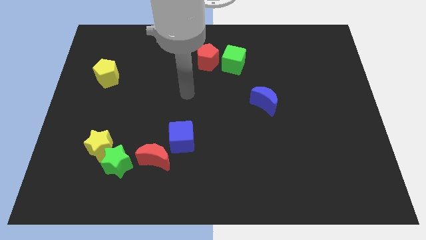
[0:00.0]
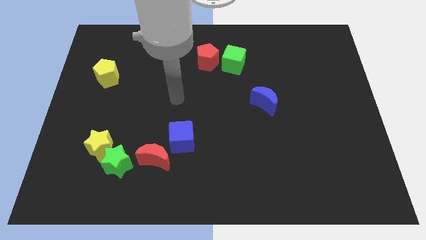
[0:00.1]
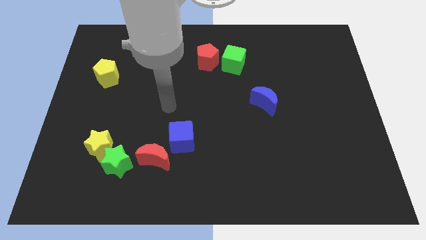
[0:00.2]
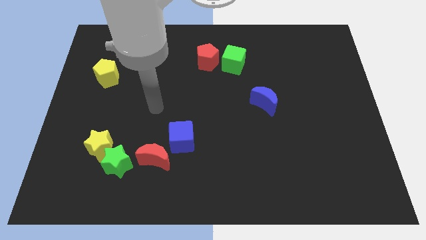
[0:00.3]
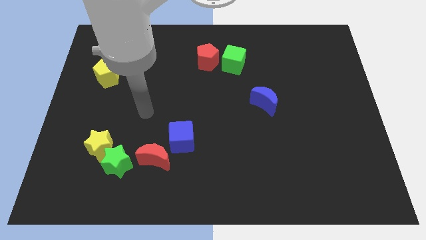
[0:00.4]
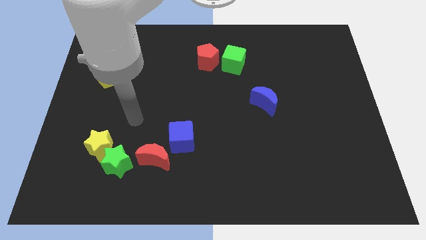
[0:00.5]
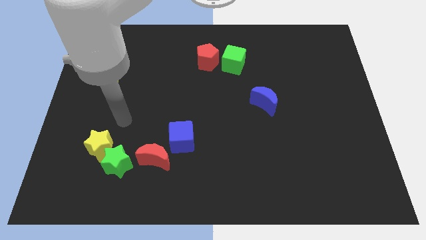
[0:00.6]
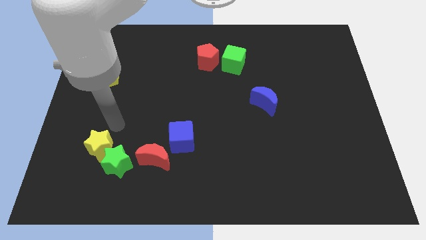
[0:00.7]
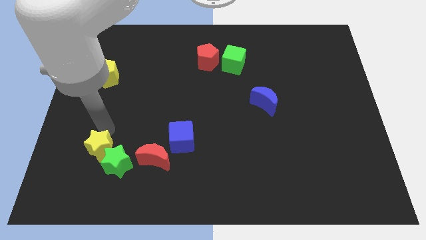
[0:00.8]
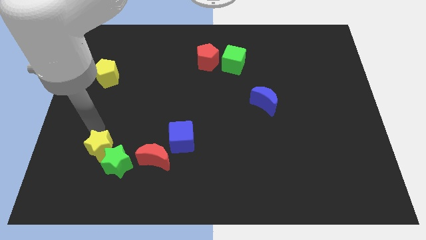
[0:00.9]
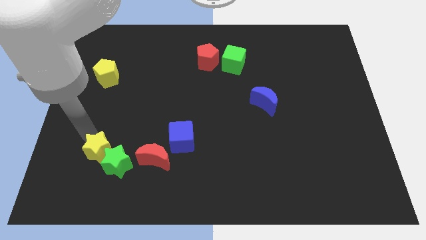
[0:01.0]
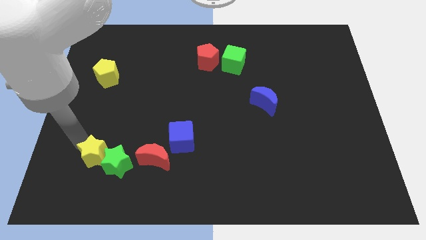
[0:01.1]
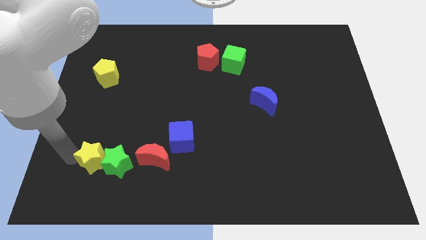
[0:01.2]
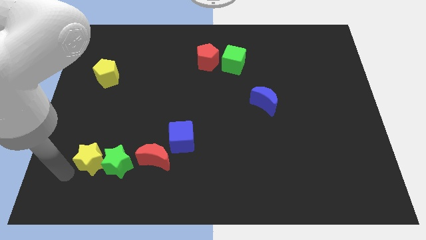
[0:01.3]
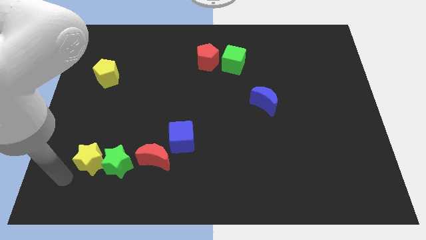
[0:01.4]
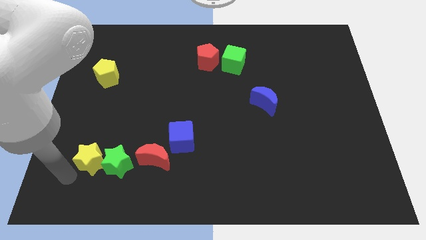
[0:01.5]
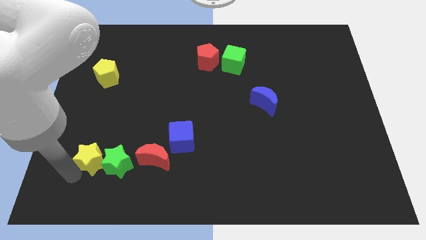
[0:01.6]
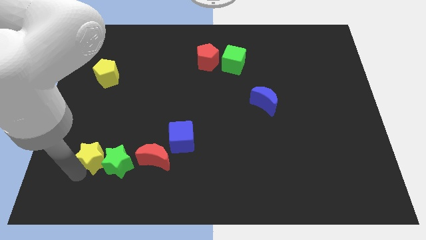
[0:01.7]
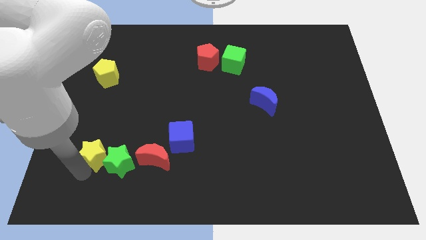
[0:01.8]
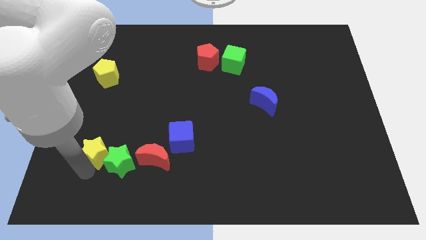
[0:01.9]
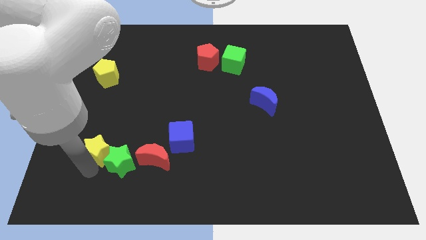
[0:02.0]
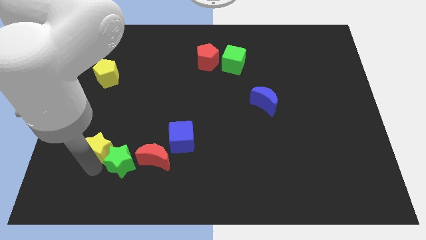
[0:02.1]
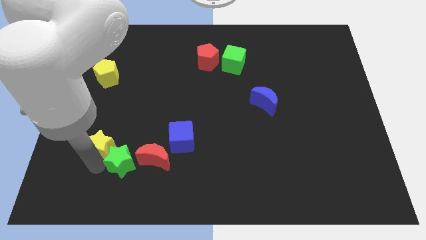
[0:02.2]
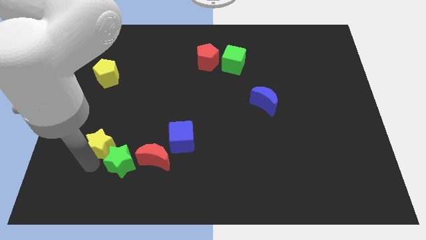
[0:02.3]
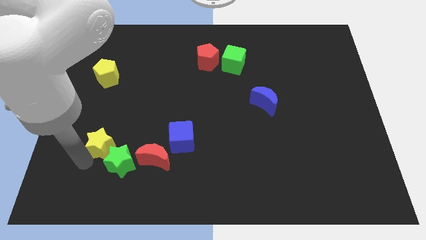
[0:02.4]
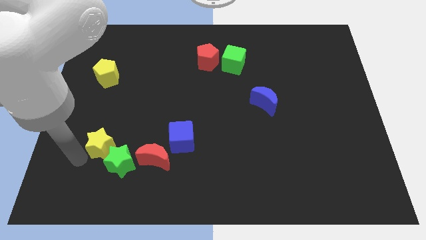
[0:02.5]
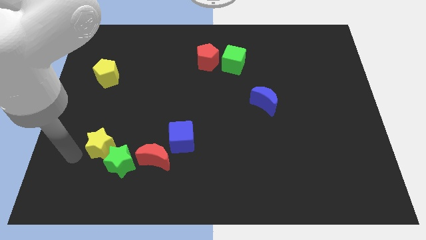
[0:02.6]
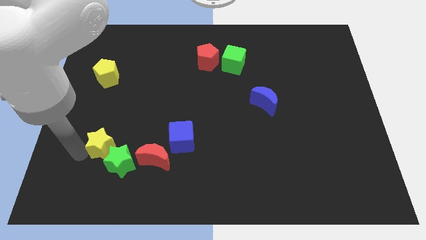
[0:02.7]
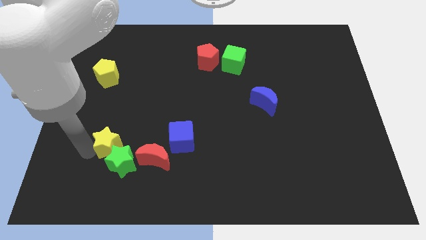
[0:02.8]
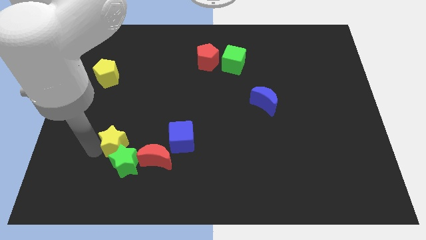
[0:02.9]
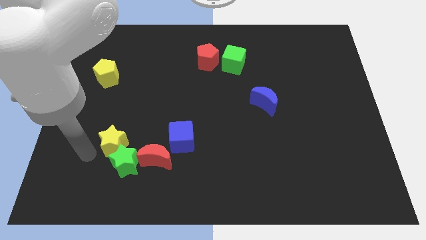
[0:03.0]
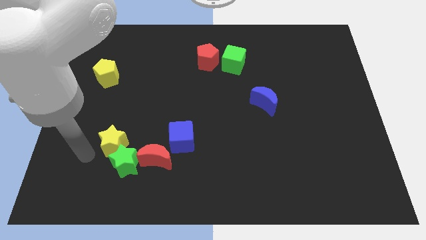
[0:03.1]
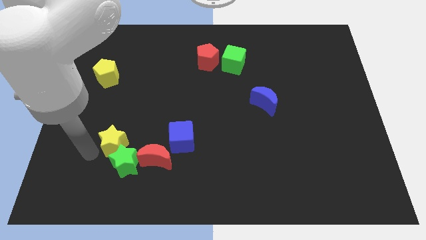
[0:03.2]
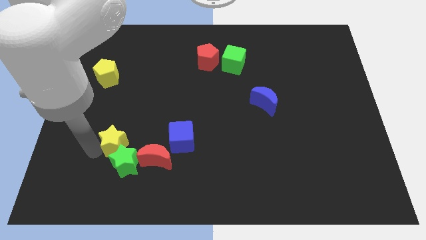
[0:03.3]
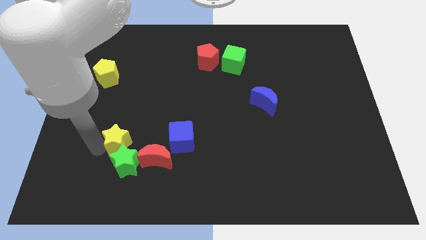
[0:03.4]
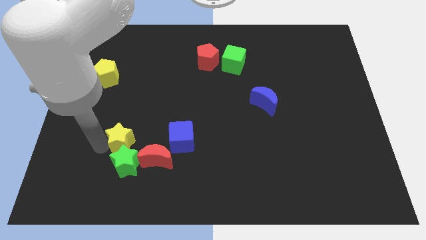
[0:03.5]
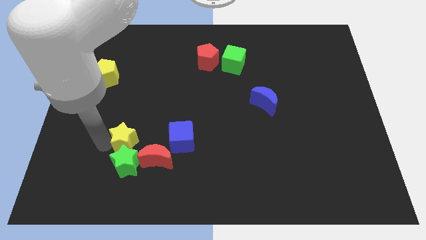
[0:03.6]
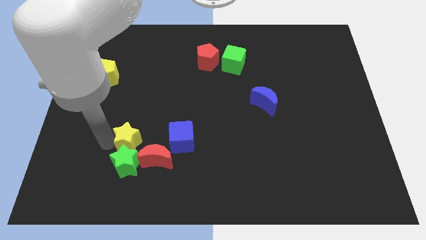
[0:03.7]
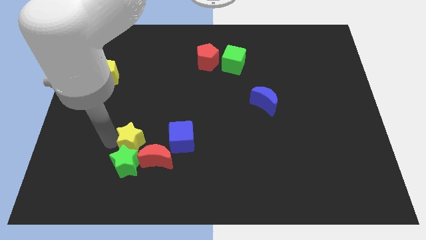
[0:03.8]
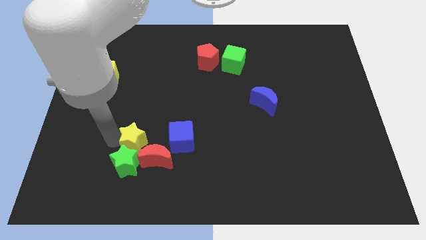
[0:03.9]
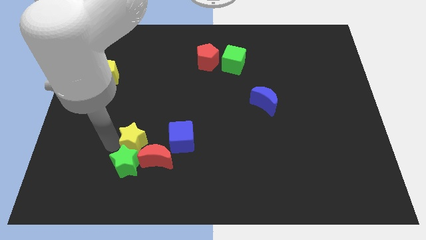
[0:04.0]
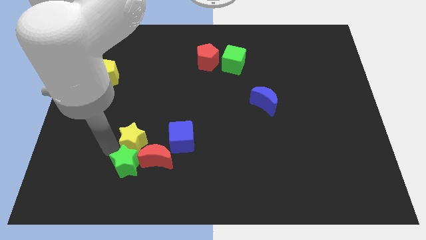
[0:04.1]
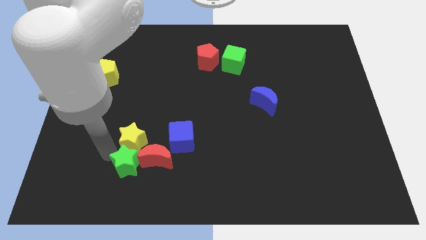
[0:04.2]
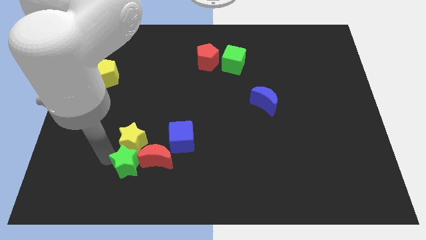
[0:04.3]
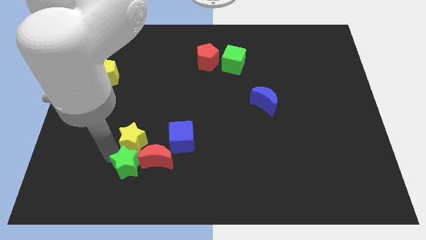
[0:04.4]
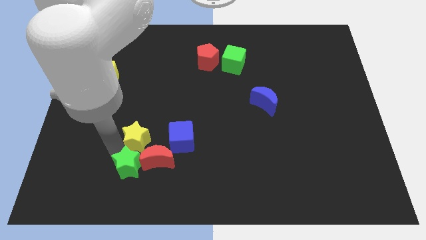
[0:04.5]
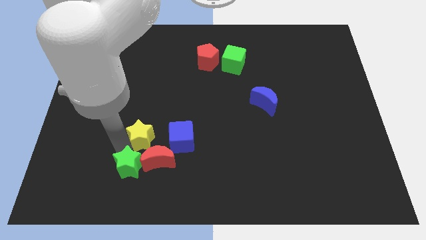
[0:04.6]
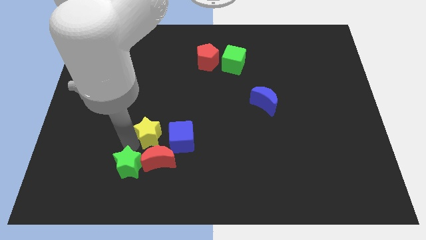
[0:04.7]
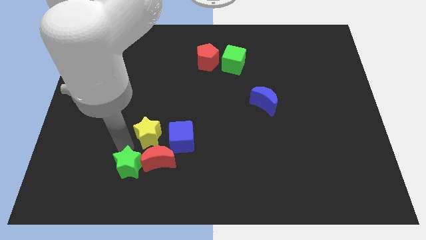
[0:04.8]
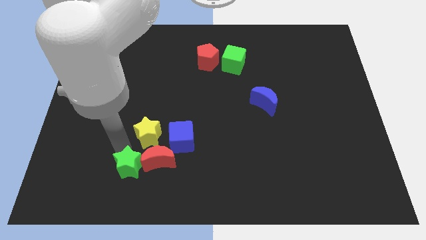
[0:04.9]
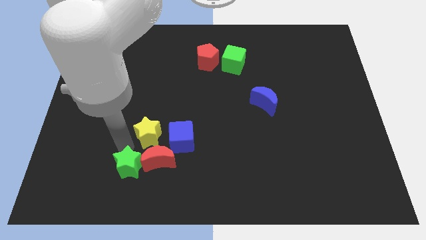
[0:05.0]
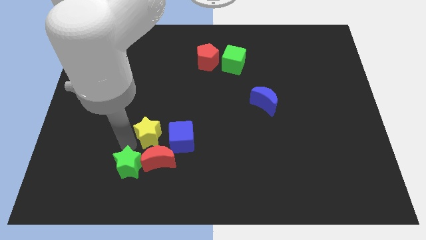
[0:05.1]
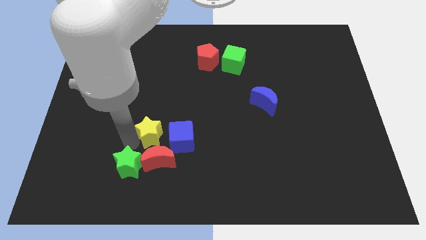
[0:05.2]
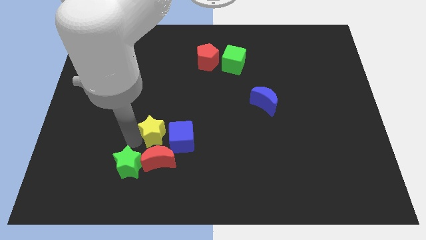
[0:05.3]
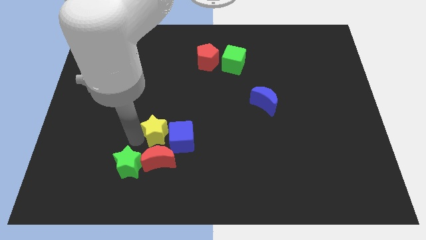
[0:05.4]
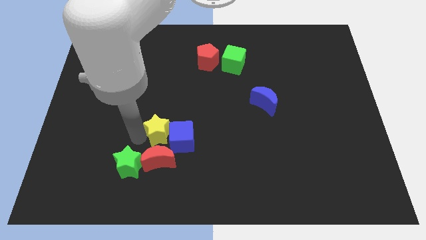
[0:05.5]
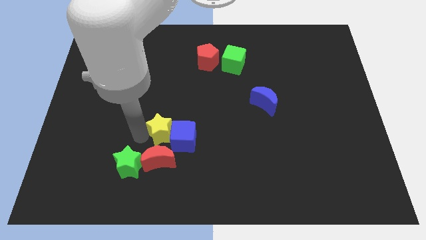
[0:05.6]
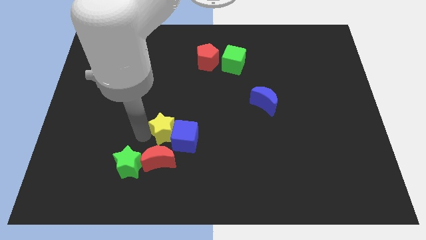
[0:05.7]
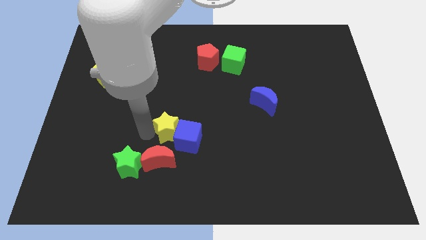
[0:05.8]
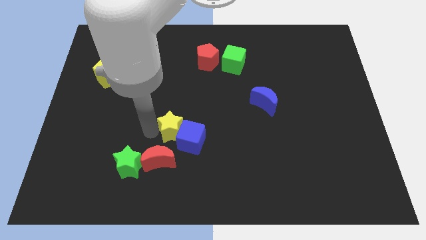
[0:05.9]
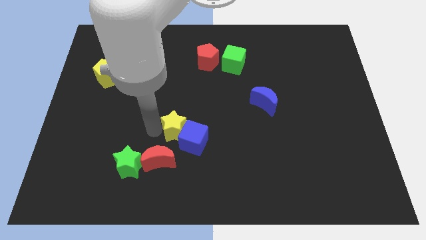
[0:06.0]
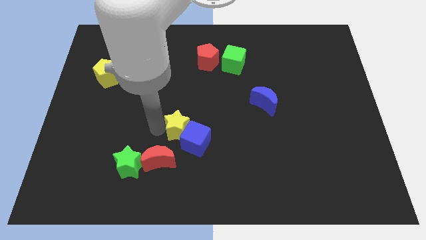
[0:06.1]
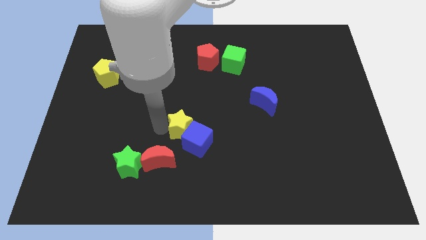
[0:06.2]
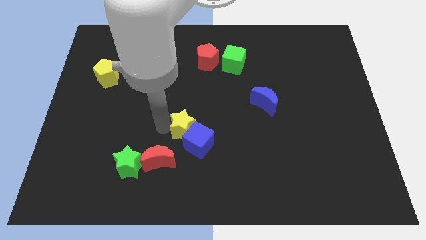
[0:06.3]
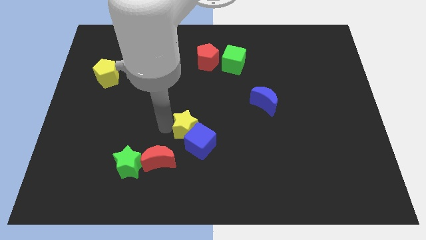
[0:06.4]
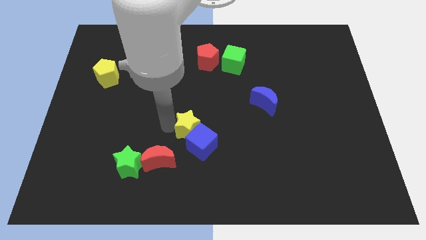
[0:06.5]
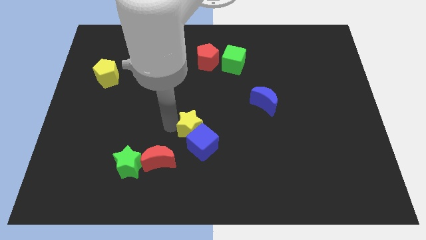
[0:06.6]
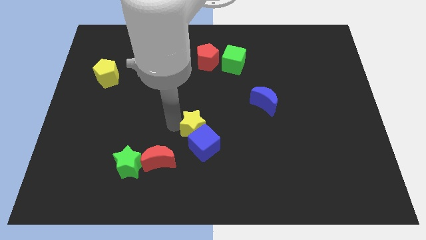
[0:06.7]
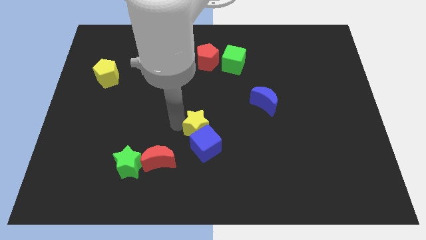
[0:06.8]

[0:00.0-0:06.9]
push the yellow star right

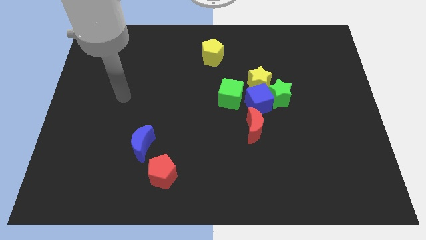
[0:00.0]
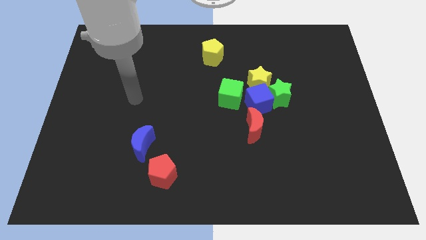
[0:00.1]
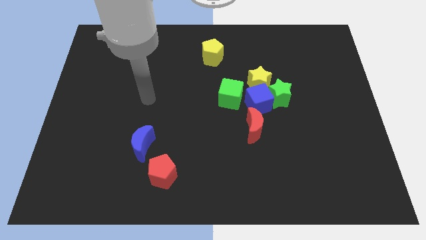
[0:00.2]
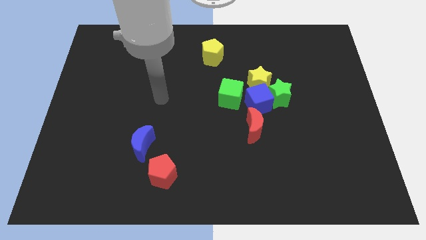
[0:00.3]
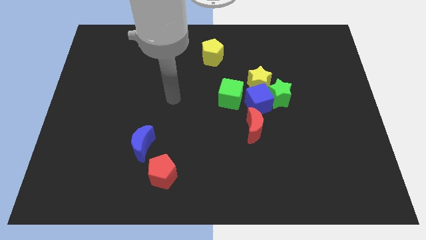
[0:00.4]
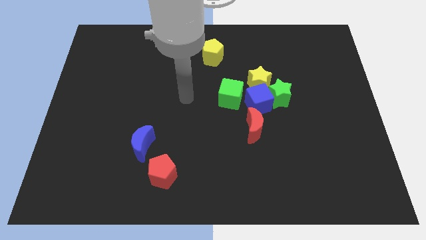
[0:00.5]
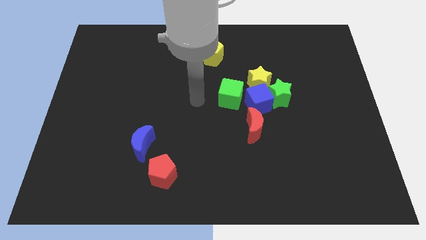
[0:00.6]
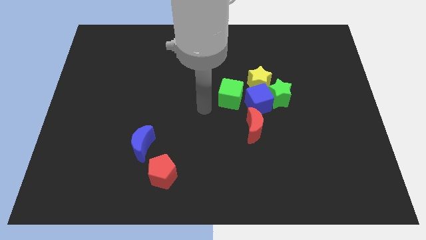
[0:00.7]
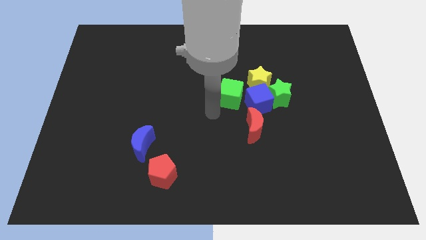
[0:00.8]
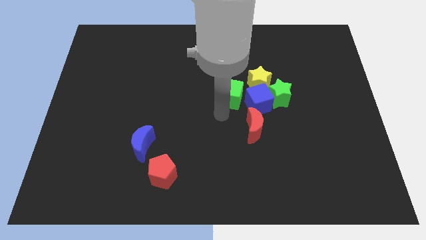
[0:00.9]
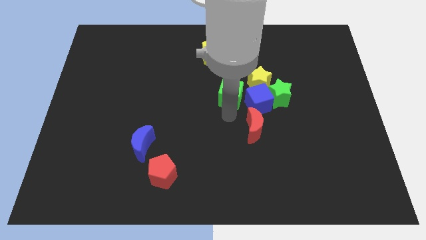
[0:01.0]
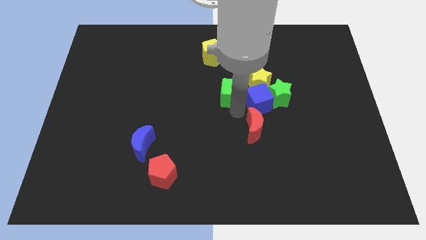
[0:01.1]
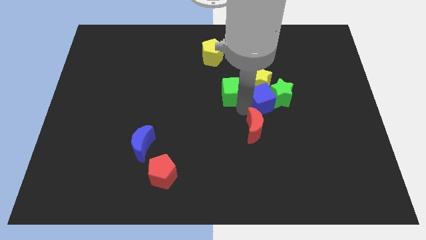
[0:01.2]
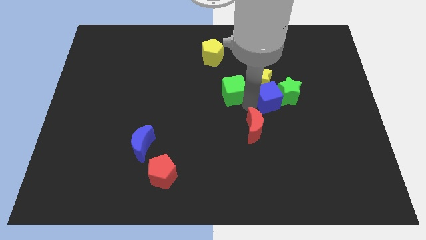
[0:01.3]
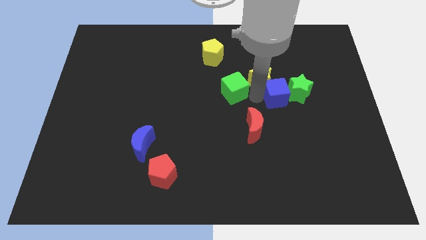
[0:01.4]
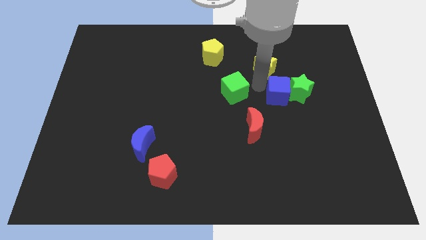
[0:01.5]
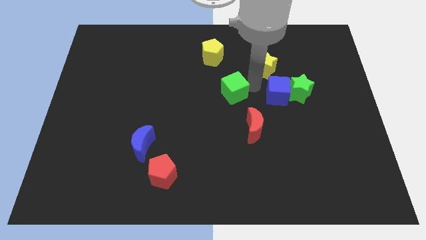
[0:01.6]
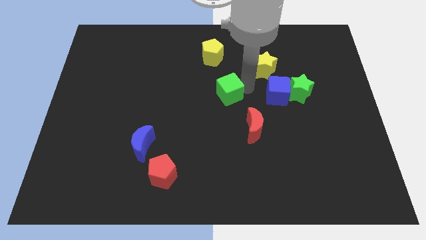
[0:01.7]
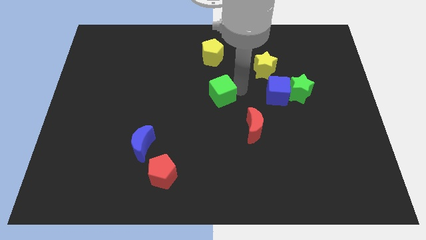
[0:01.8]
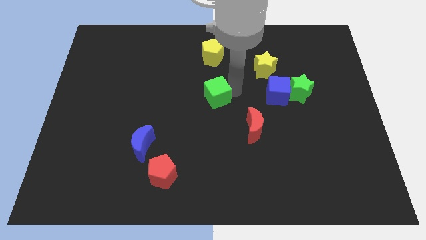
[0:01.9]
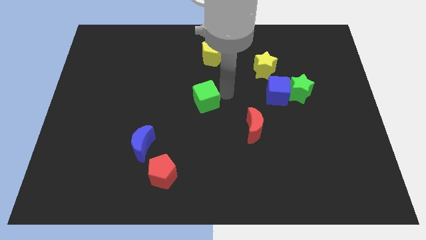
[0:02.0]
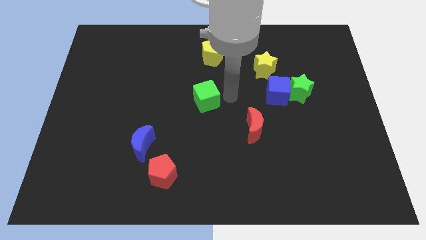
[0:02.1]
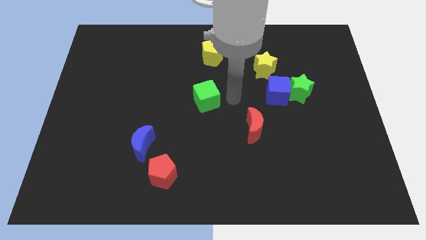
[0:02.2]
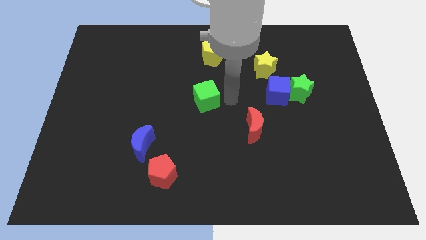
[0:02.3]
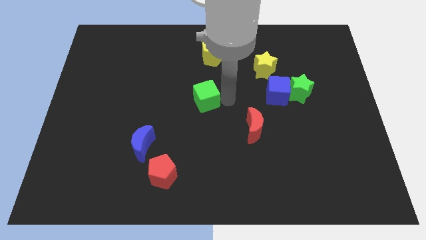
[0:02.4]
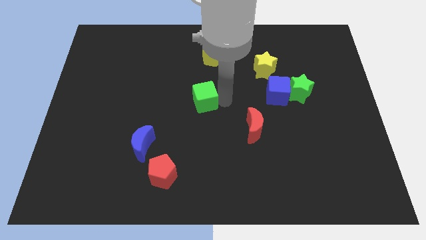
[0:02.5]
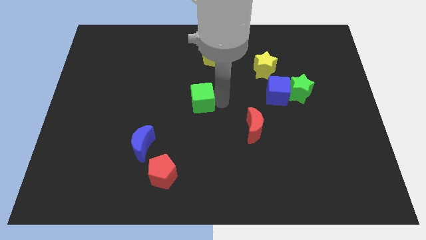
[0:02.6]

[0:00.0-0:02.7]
move the green cube a little bit left
